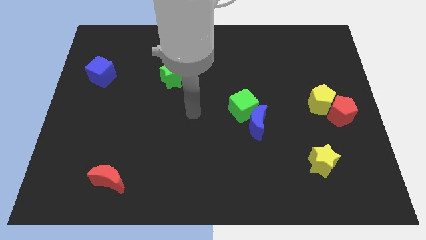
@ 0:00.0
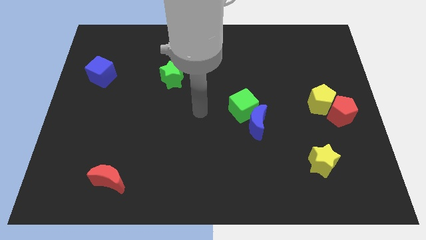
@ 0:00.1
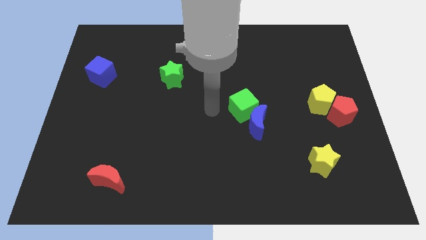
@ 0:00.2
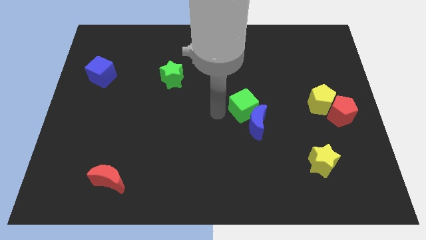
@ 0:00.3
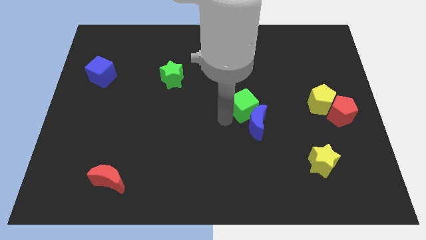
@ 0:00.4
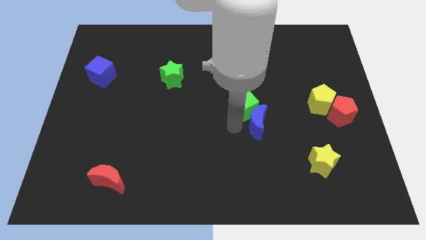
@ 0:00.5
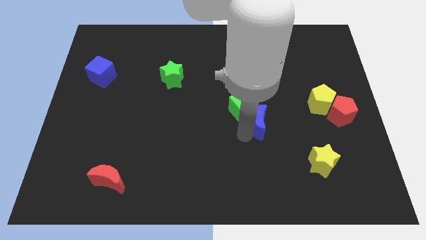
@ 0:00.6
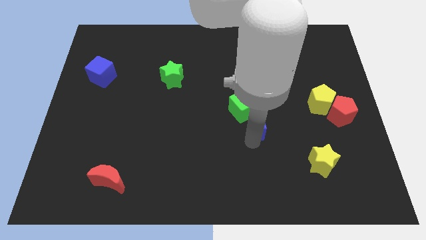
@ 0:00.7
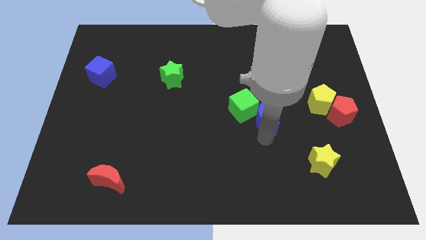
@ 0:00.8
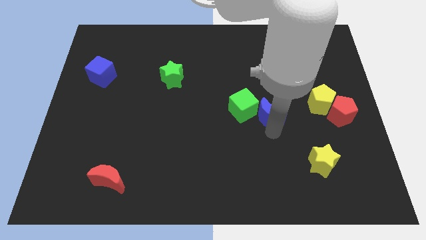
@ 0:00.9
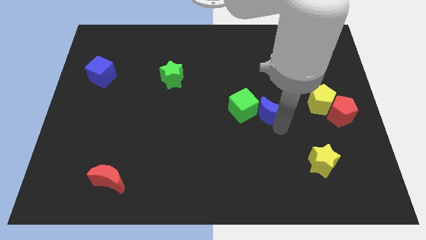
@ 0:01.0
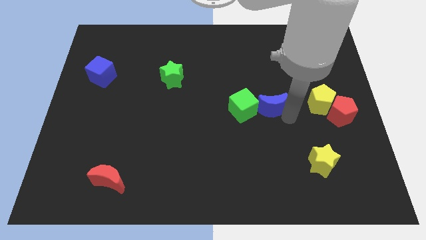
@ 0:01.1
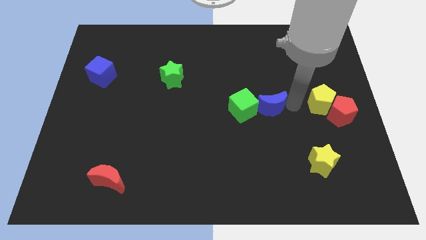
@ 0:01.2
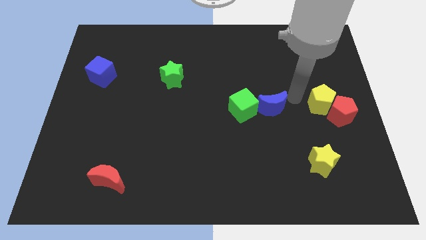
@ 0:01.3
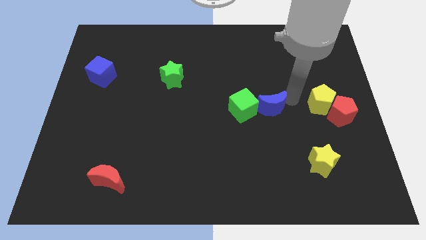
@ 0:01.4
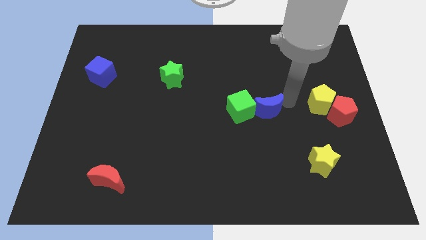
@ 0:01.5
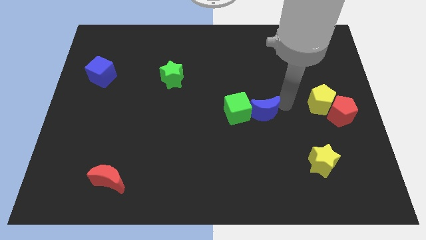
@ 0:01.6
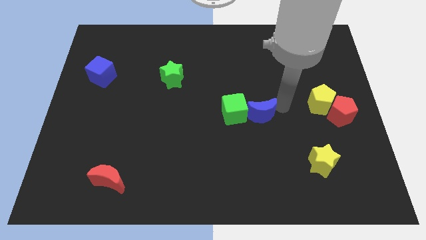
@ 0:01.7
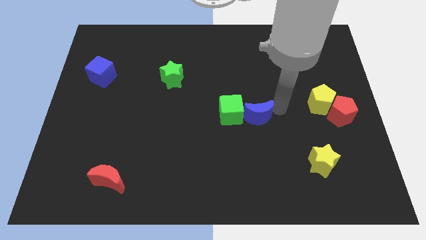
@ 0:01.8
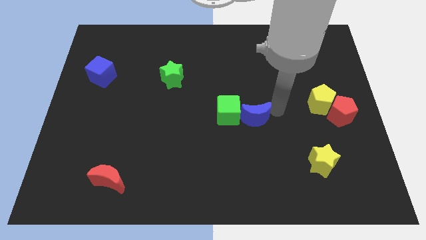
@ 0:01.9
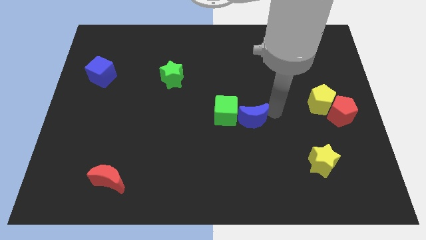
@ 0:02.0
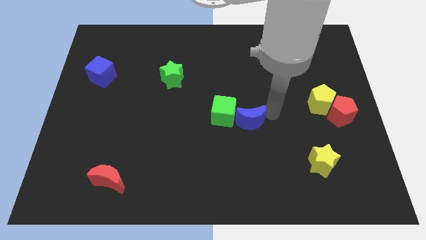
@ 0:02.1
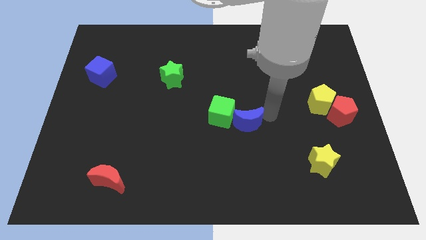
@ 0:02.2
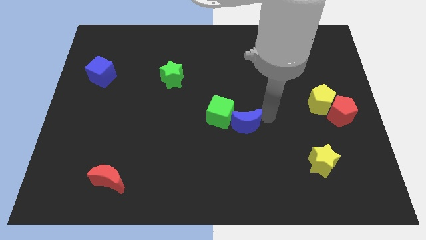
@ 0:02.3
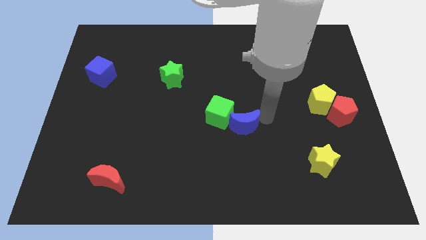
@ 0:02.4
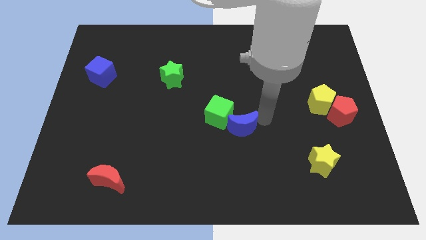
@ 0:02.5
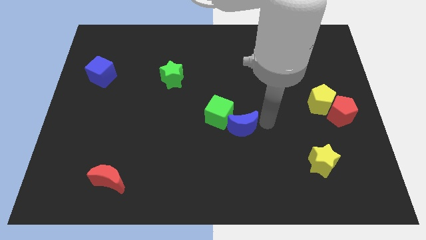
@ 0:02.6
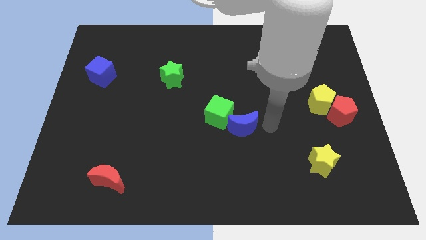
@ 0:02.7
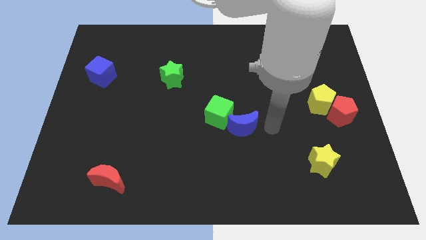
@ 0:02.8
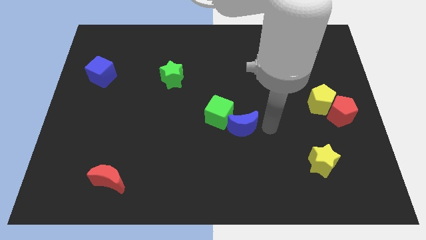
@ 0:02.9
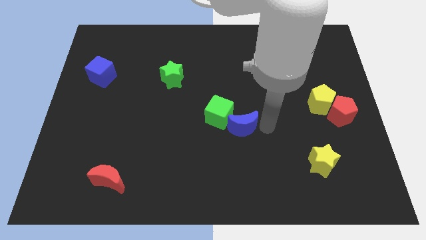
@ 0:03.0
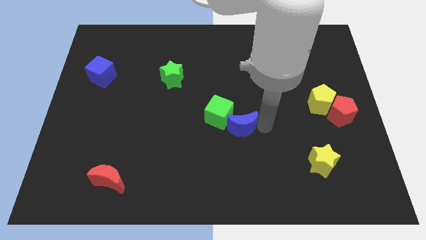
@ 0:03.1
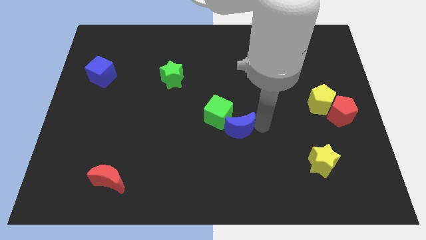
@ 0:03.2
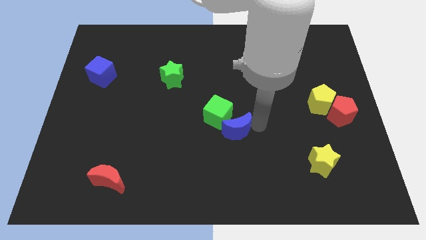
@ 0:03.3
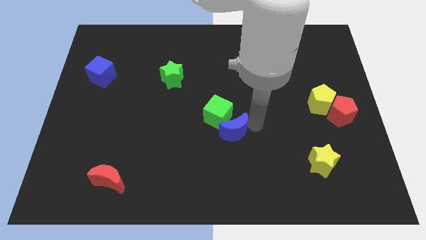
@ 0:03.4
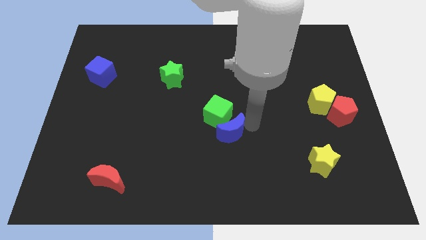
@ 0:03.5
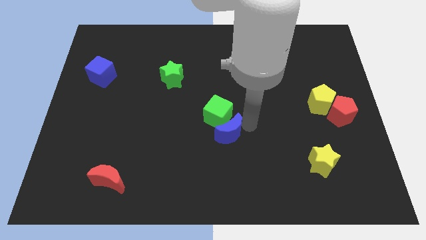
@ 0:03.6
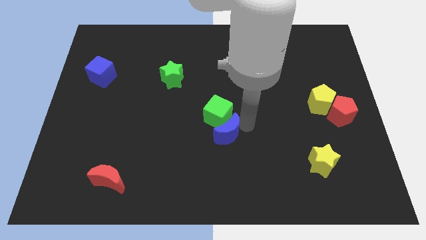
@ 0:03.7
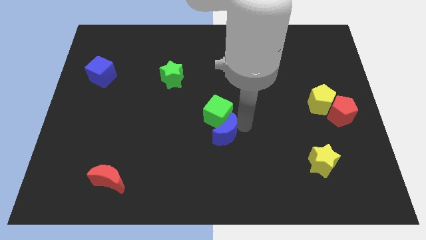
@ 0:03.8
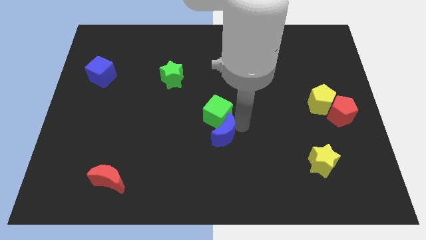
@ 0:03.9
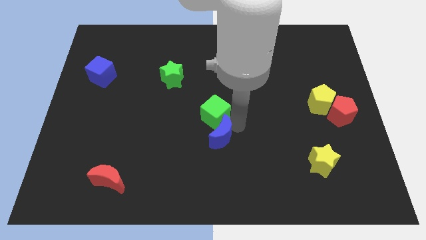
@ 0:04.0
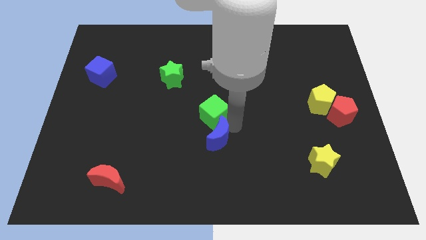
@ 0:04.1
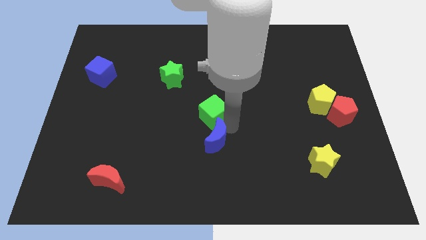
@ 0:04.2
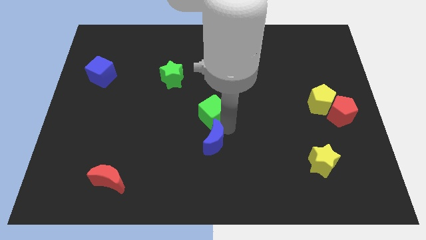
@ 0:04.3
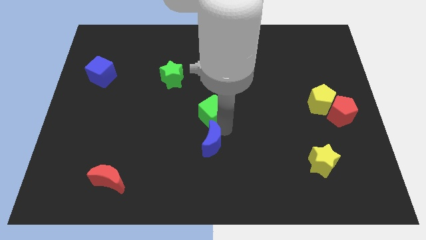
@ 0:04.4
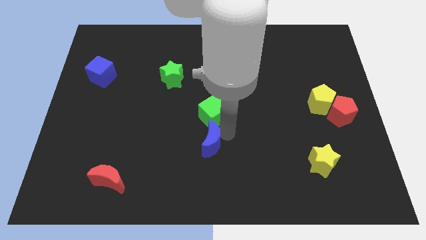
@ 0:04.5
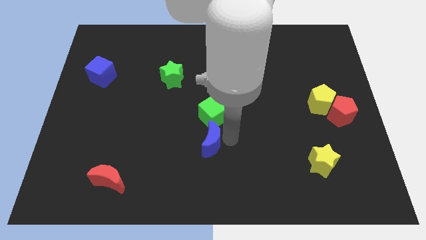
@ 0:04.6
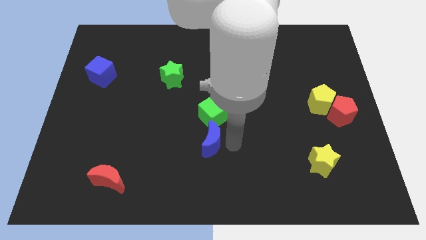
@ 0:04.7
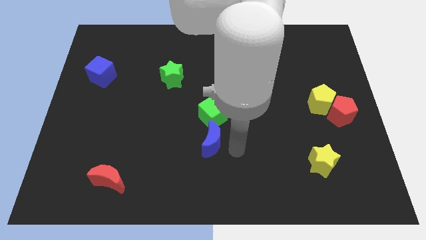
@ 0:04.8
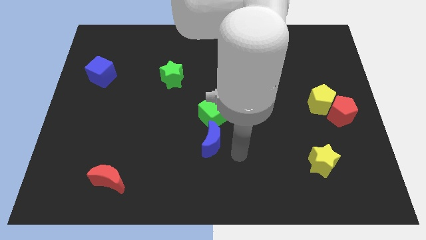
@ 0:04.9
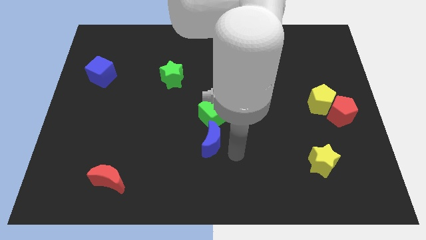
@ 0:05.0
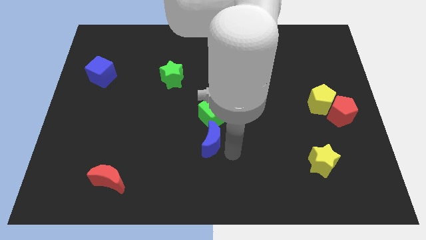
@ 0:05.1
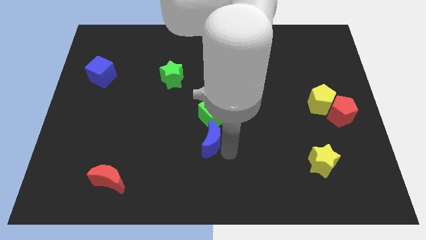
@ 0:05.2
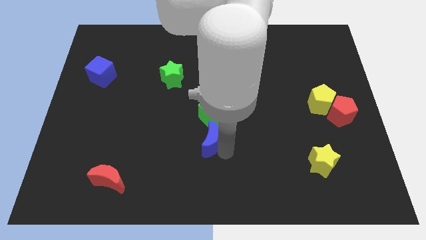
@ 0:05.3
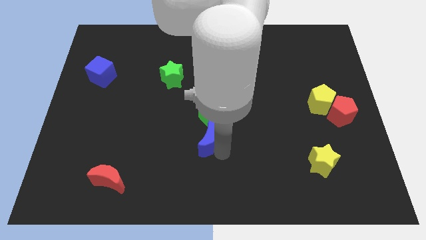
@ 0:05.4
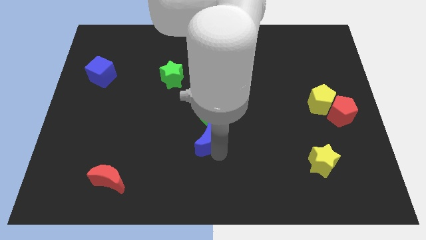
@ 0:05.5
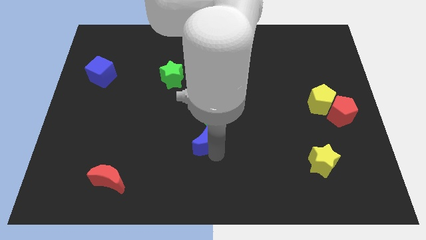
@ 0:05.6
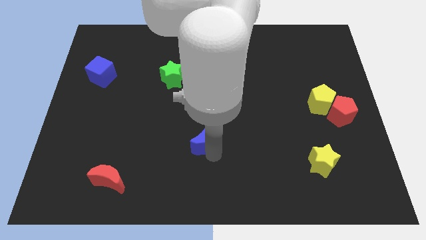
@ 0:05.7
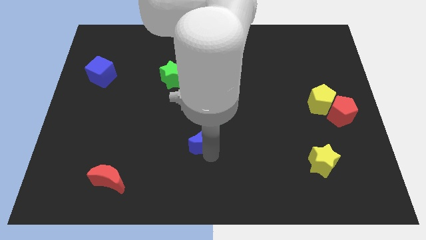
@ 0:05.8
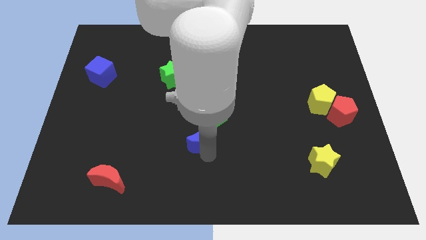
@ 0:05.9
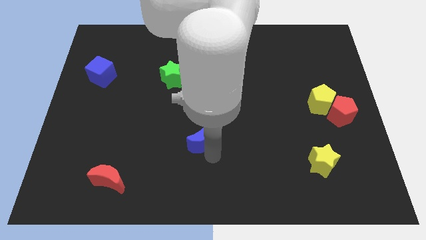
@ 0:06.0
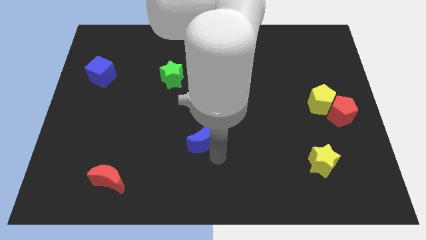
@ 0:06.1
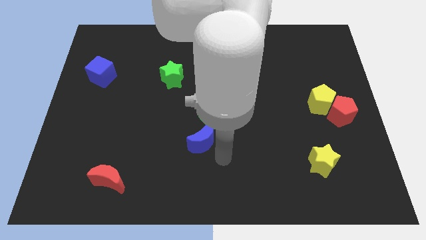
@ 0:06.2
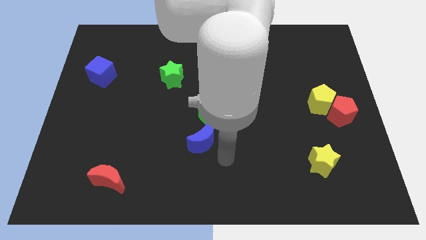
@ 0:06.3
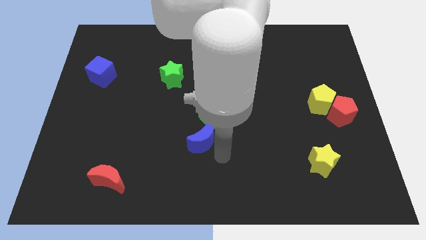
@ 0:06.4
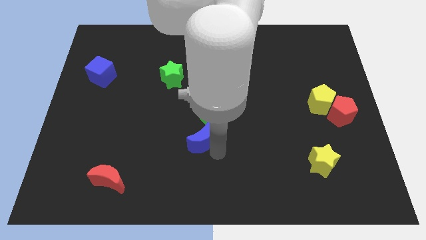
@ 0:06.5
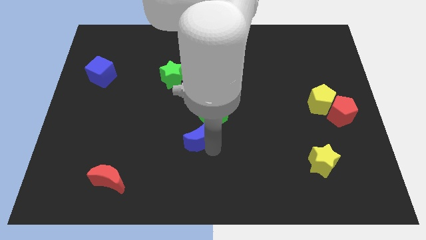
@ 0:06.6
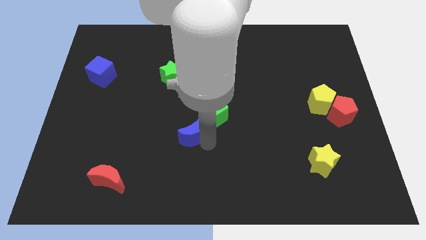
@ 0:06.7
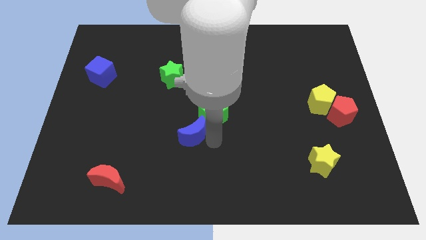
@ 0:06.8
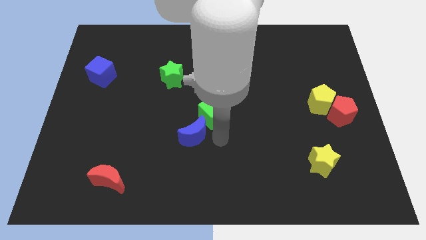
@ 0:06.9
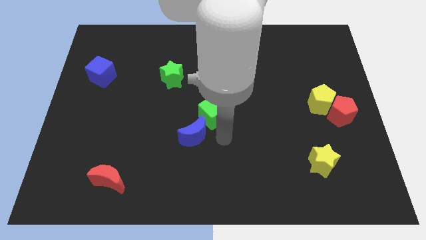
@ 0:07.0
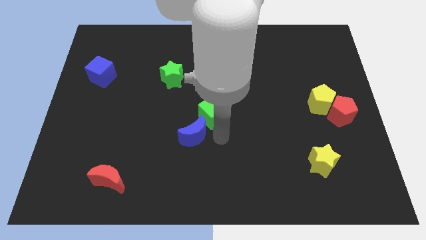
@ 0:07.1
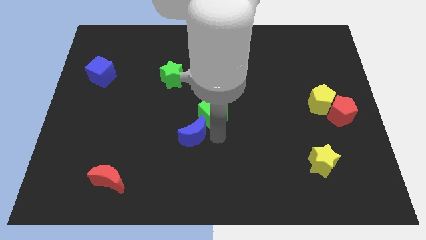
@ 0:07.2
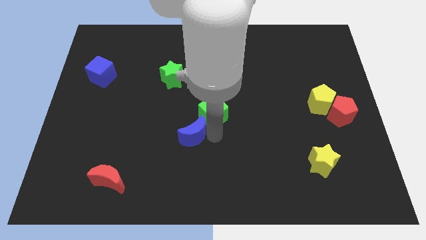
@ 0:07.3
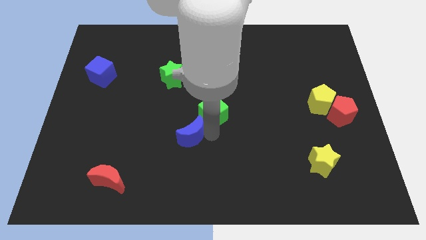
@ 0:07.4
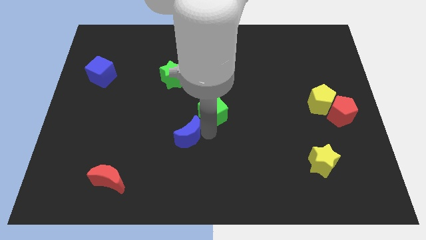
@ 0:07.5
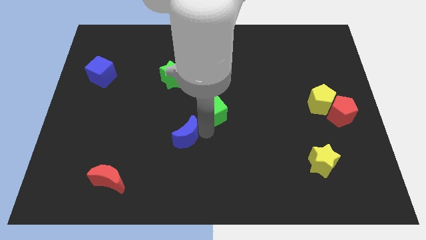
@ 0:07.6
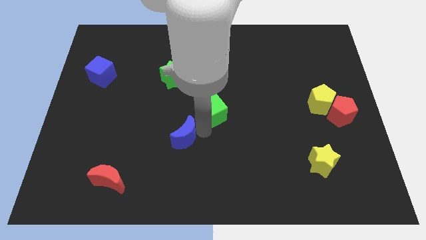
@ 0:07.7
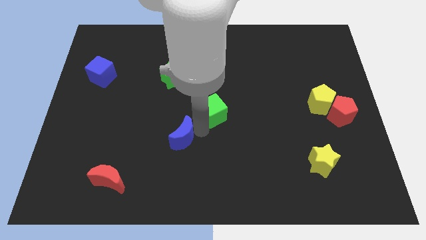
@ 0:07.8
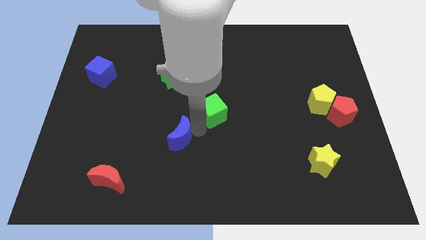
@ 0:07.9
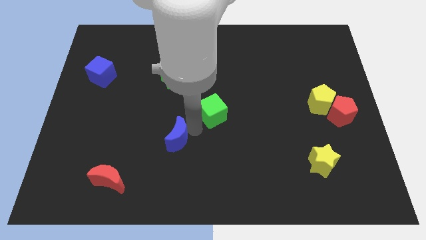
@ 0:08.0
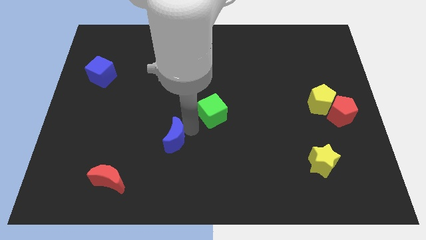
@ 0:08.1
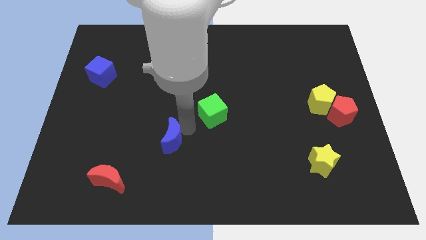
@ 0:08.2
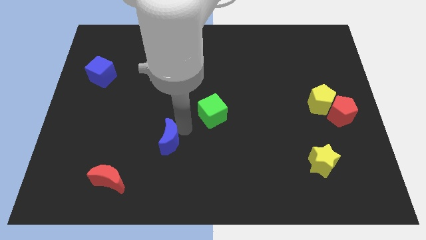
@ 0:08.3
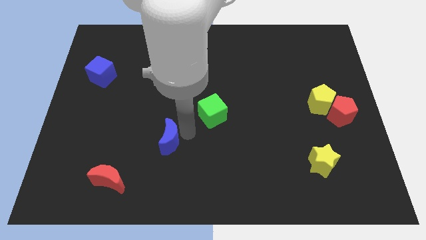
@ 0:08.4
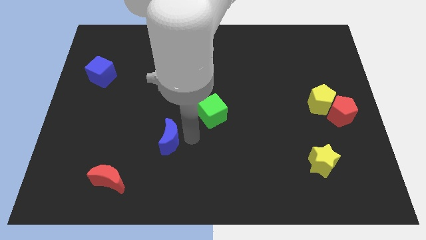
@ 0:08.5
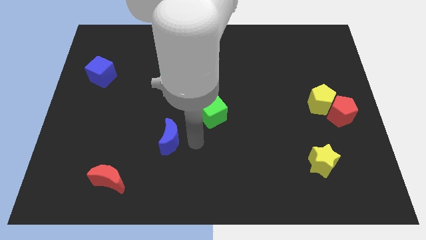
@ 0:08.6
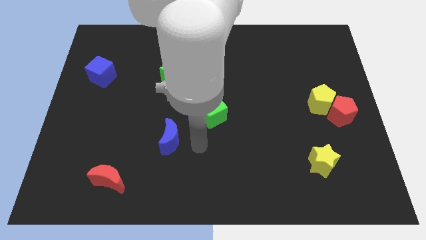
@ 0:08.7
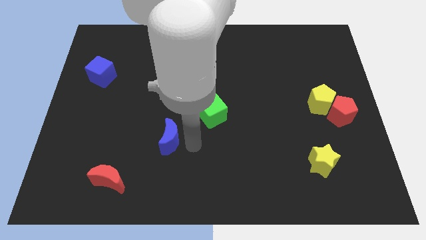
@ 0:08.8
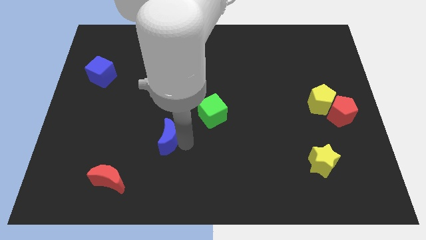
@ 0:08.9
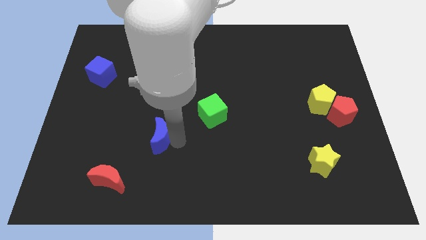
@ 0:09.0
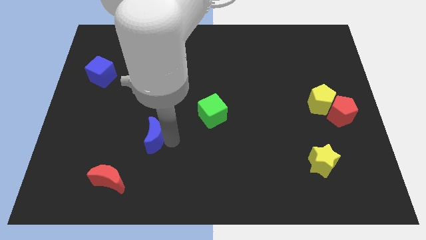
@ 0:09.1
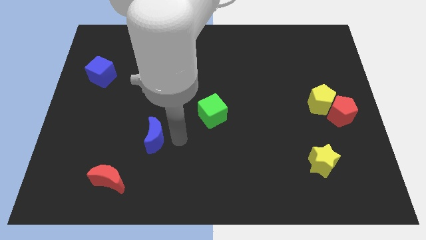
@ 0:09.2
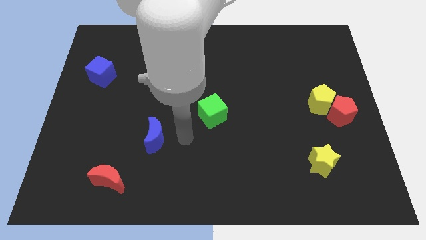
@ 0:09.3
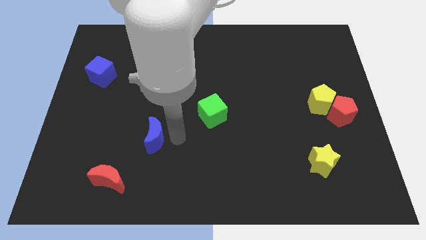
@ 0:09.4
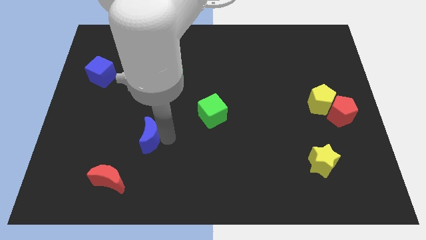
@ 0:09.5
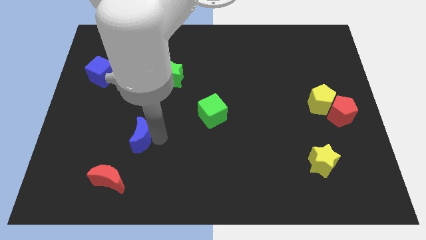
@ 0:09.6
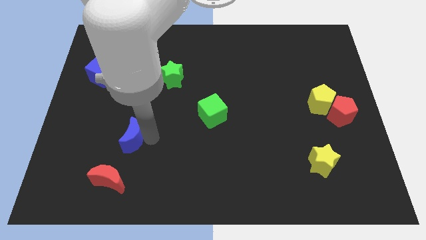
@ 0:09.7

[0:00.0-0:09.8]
push the blue moon to the top of the red moon
